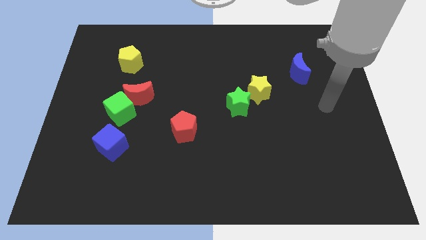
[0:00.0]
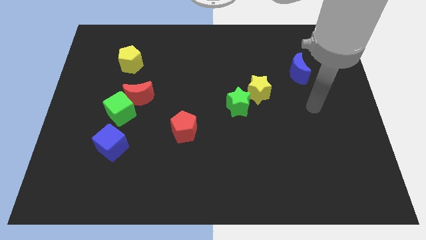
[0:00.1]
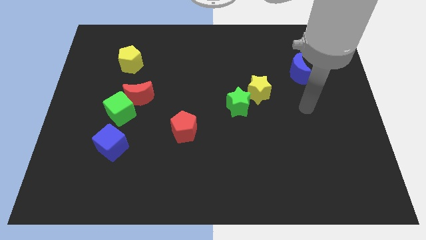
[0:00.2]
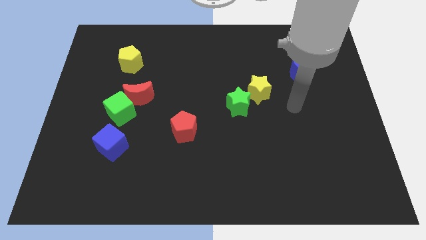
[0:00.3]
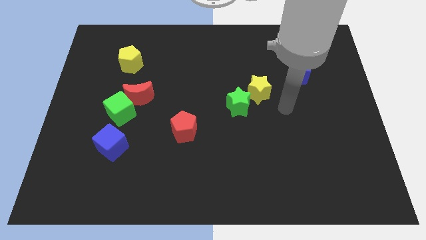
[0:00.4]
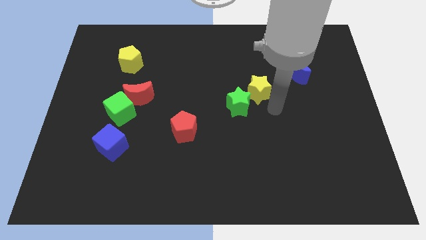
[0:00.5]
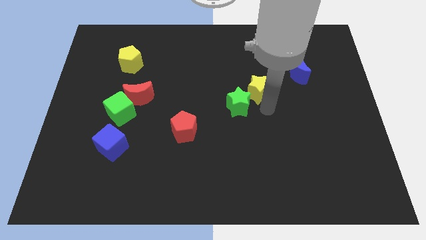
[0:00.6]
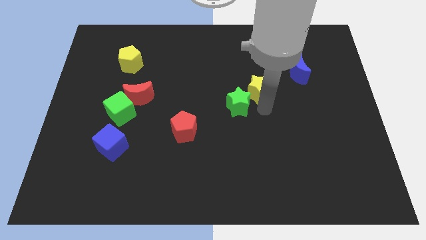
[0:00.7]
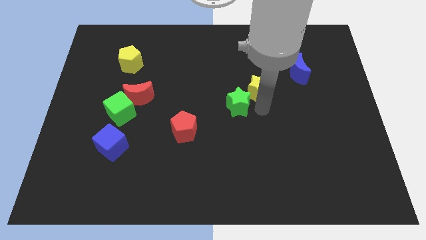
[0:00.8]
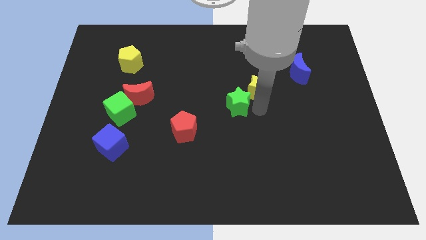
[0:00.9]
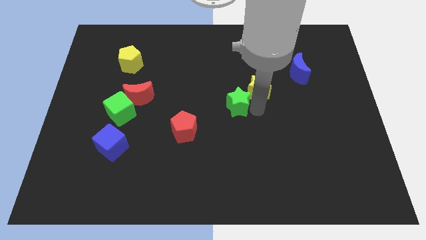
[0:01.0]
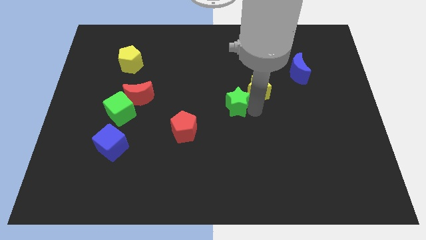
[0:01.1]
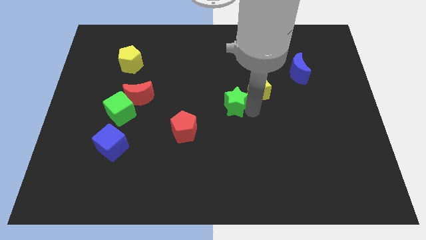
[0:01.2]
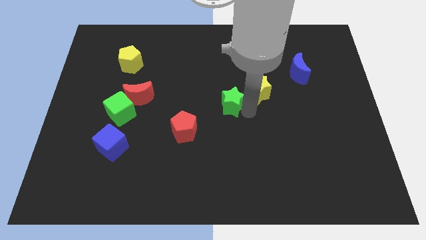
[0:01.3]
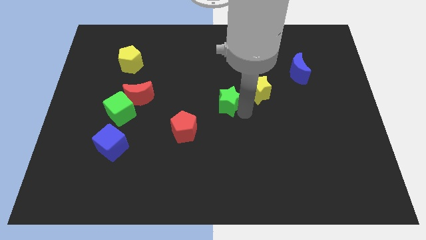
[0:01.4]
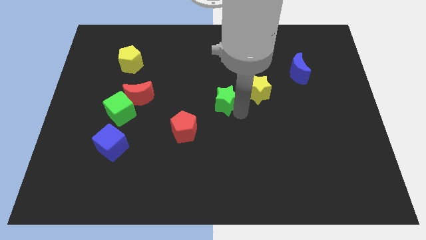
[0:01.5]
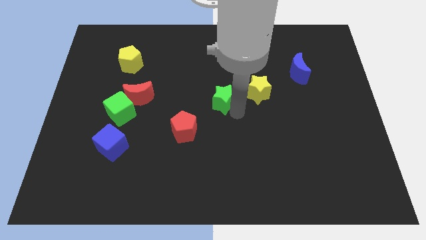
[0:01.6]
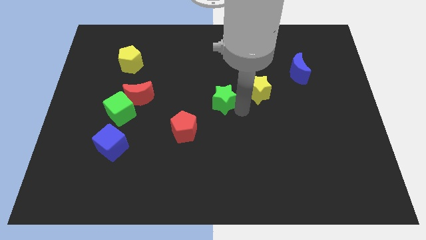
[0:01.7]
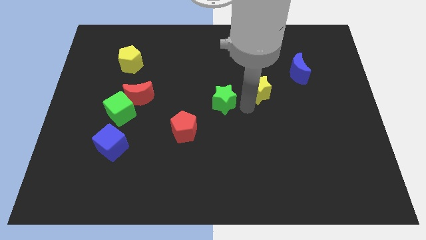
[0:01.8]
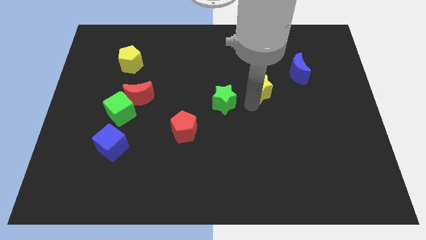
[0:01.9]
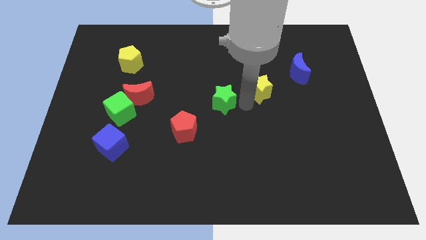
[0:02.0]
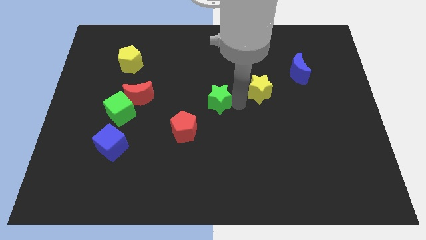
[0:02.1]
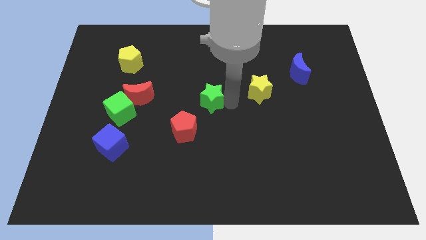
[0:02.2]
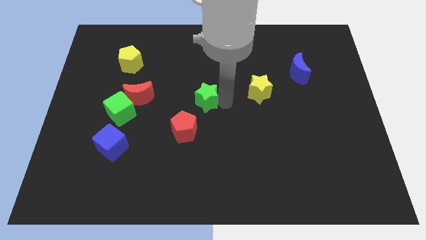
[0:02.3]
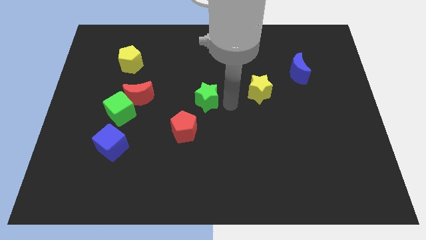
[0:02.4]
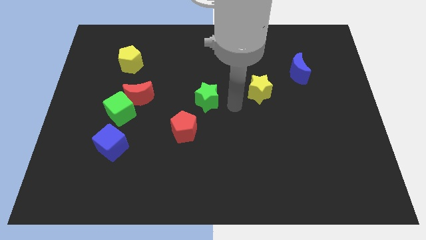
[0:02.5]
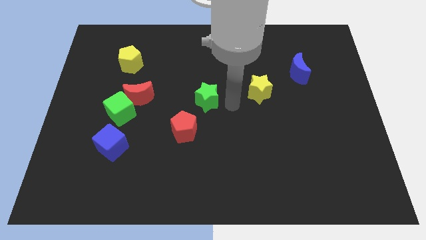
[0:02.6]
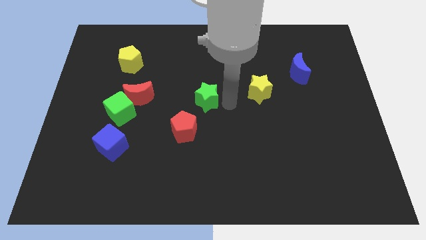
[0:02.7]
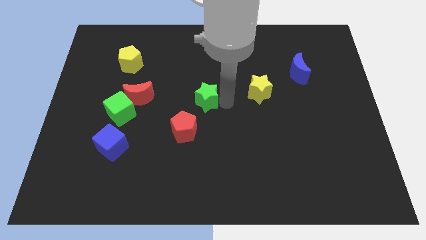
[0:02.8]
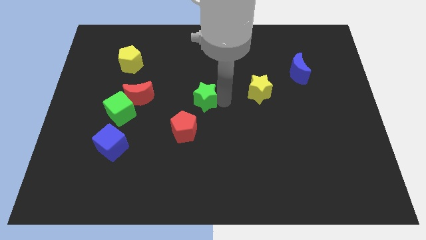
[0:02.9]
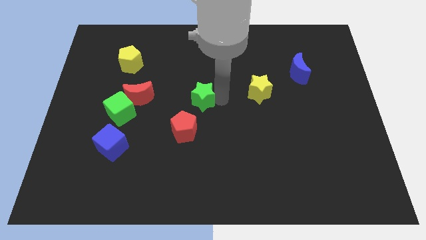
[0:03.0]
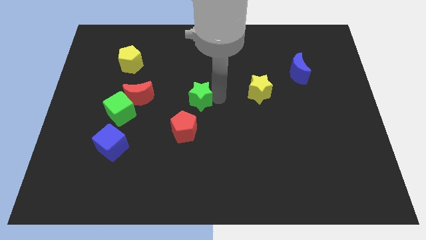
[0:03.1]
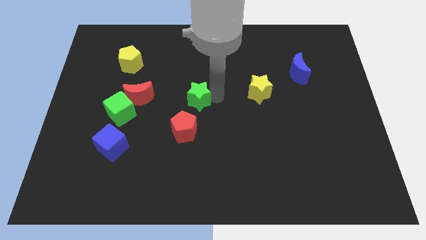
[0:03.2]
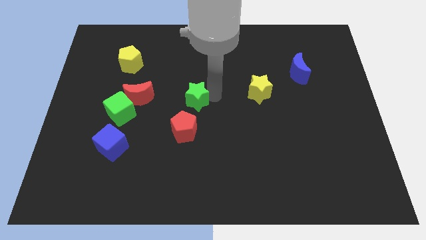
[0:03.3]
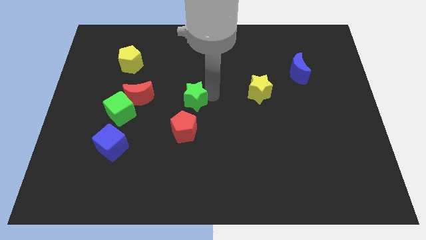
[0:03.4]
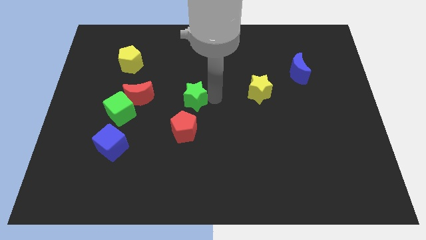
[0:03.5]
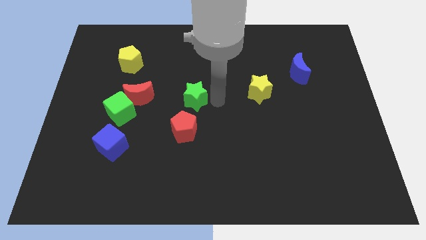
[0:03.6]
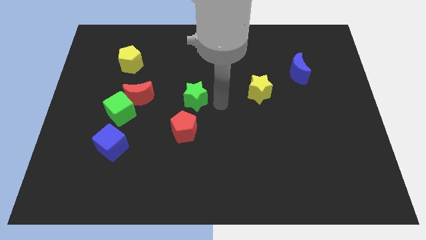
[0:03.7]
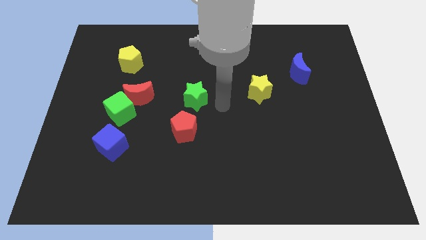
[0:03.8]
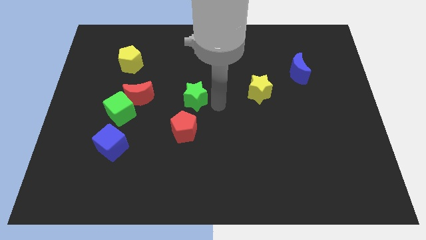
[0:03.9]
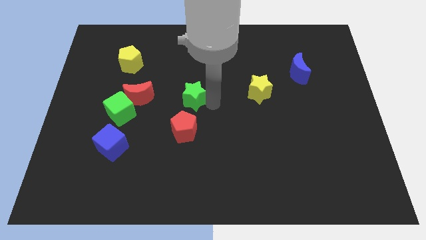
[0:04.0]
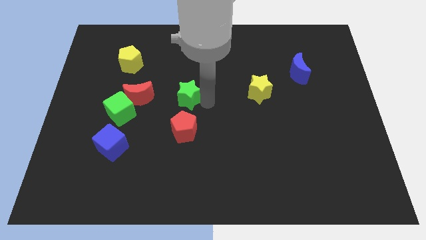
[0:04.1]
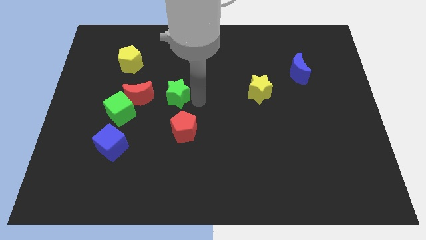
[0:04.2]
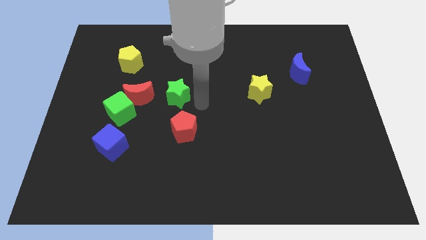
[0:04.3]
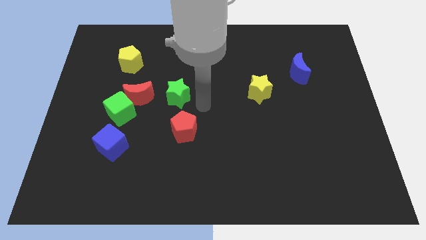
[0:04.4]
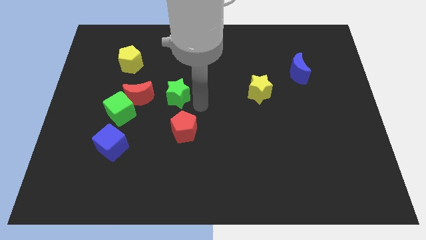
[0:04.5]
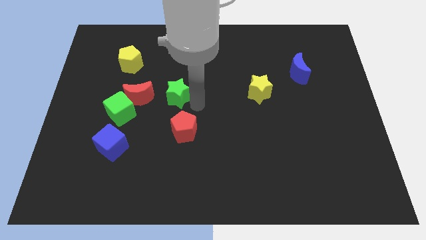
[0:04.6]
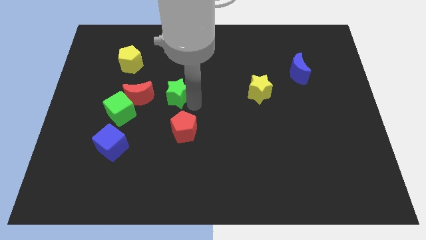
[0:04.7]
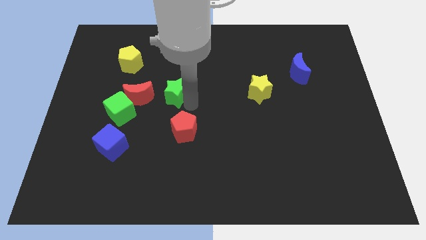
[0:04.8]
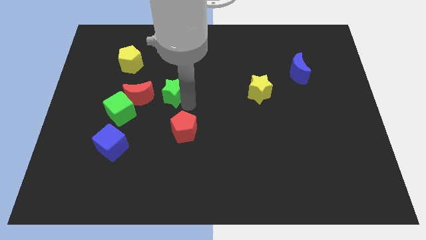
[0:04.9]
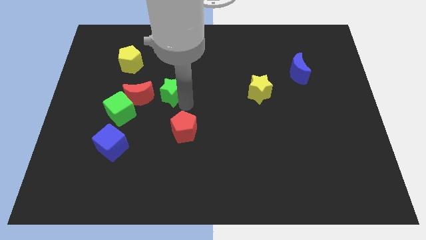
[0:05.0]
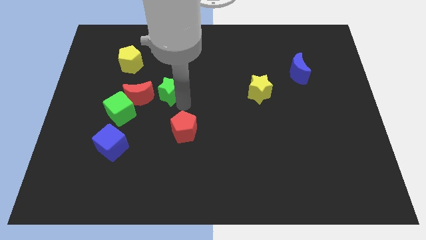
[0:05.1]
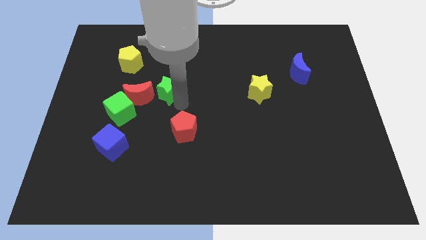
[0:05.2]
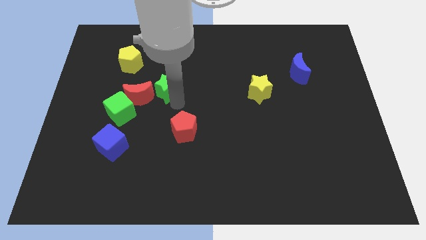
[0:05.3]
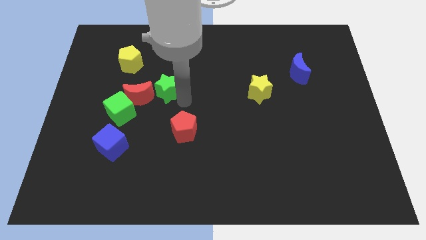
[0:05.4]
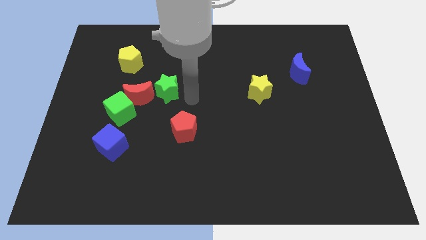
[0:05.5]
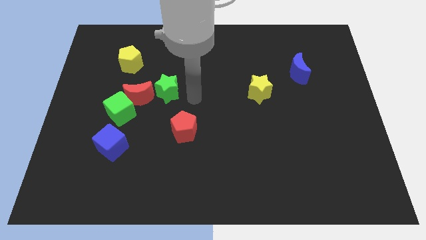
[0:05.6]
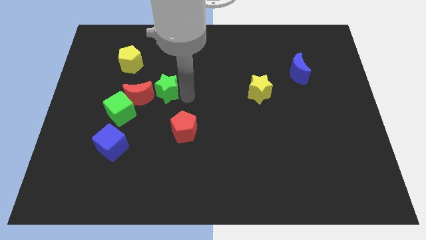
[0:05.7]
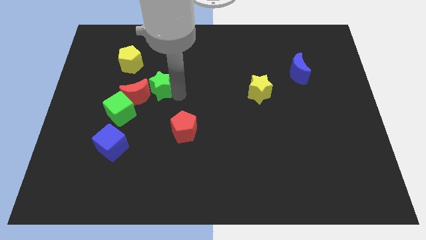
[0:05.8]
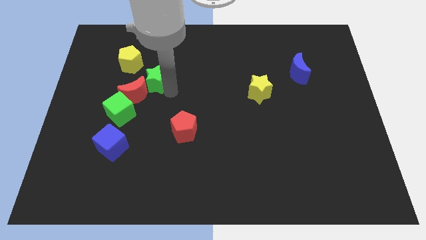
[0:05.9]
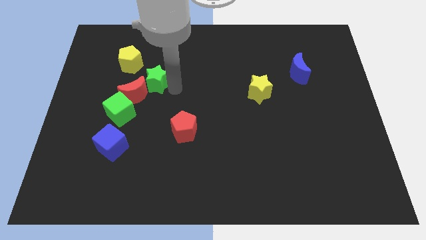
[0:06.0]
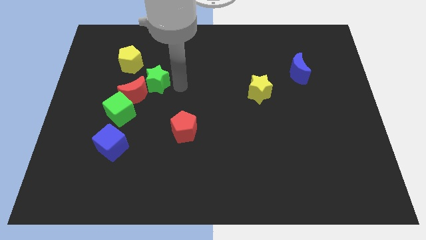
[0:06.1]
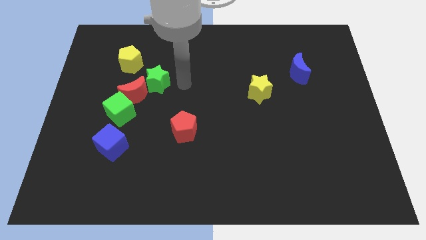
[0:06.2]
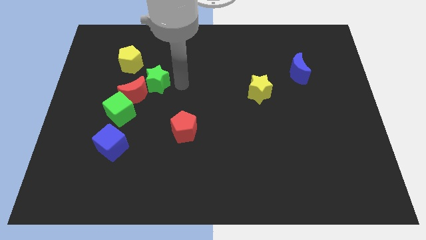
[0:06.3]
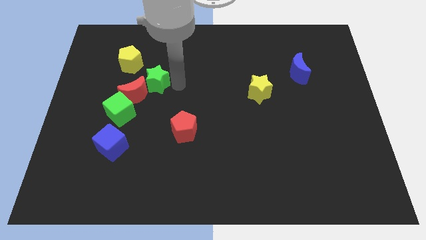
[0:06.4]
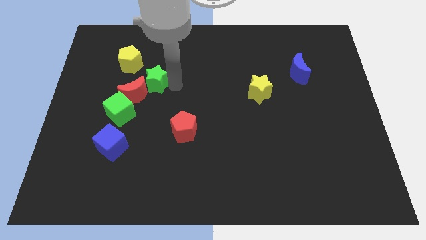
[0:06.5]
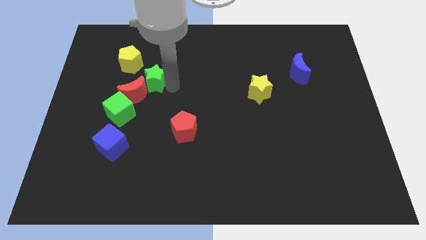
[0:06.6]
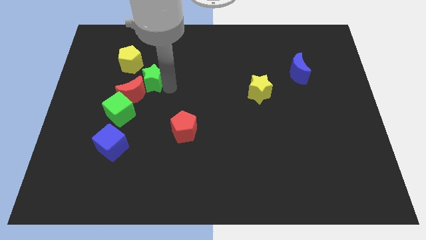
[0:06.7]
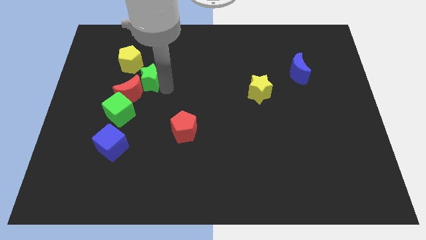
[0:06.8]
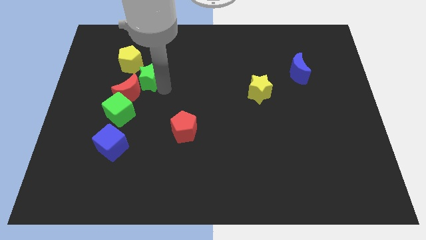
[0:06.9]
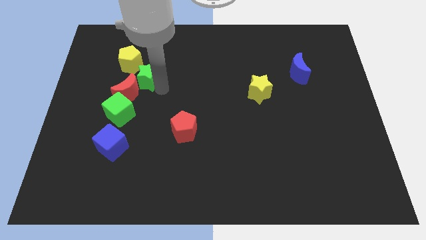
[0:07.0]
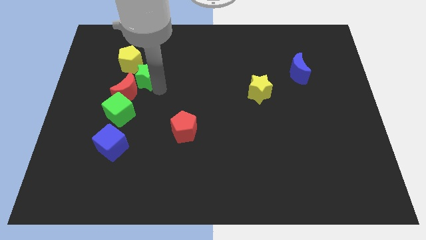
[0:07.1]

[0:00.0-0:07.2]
push the green star left

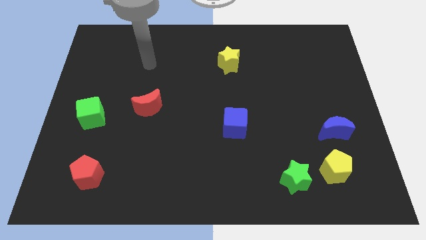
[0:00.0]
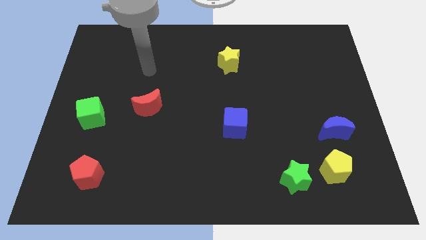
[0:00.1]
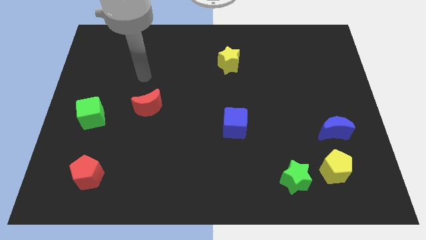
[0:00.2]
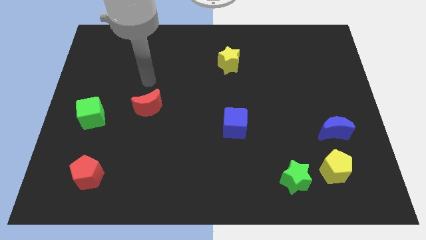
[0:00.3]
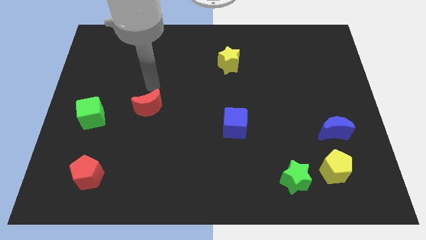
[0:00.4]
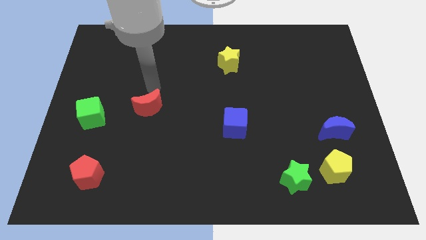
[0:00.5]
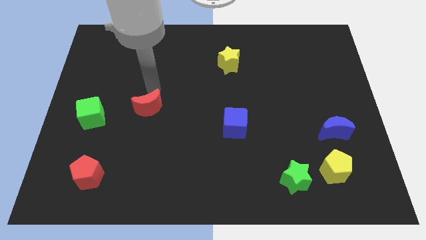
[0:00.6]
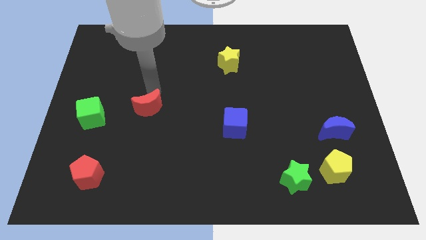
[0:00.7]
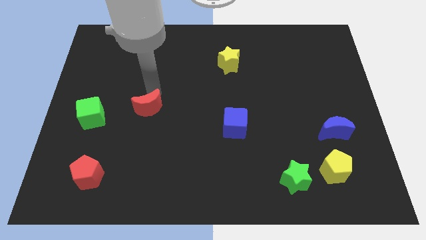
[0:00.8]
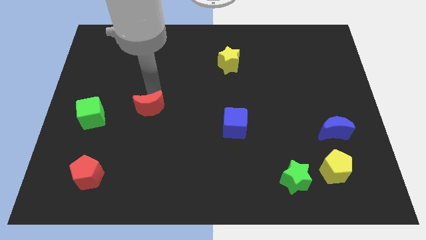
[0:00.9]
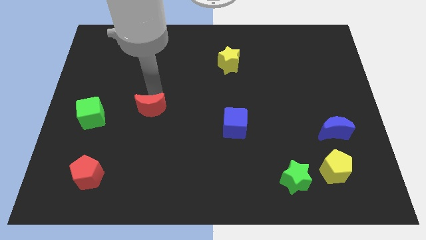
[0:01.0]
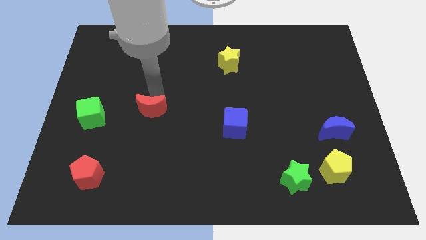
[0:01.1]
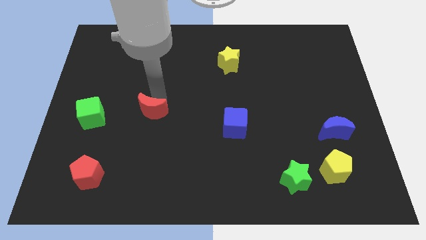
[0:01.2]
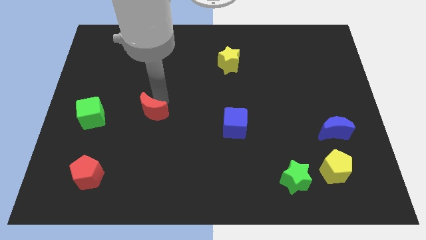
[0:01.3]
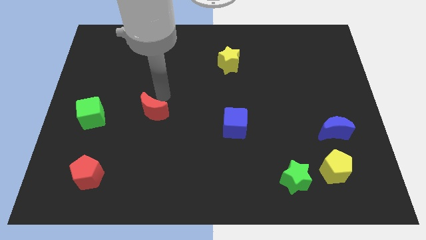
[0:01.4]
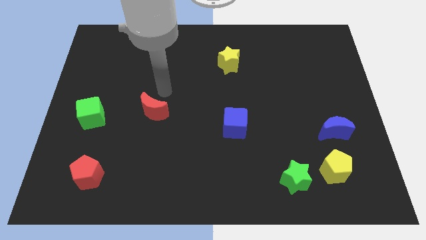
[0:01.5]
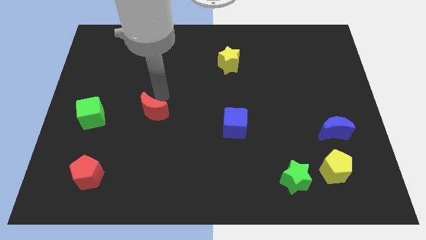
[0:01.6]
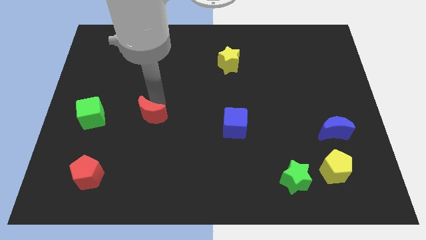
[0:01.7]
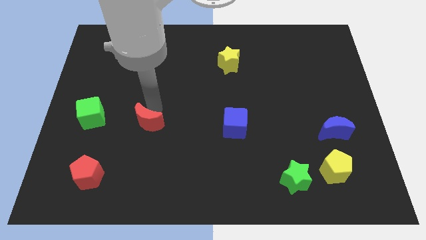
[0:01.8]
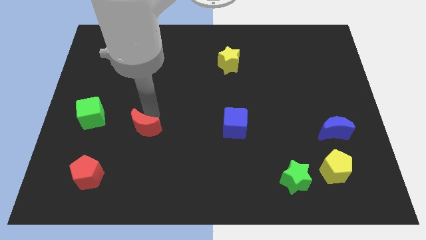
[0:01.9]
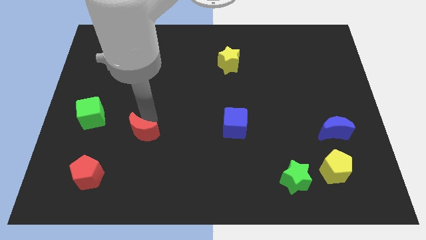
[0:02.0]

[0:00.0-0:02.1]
slide the red moon a little down
